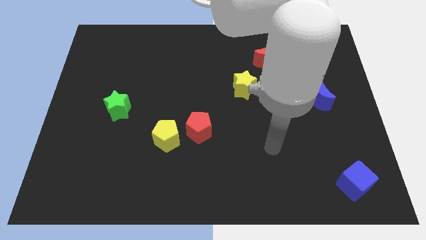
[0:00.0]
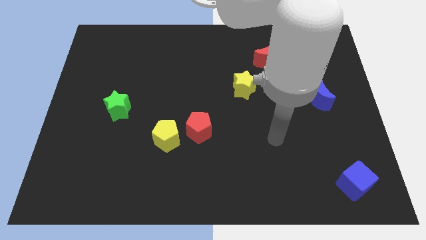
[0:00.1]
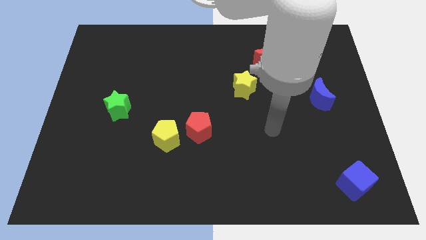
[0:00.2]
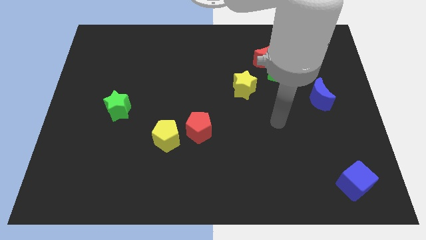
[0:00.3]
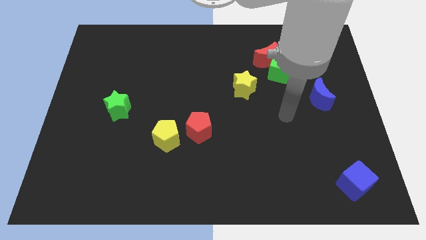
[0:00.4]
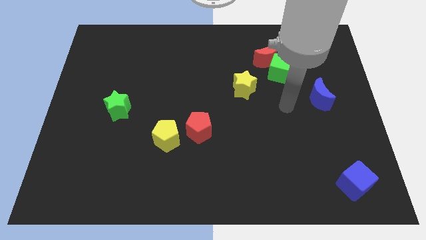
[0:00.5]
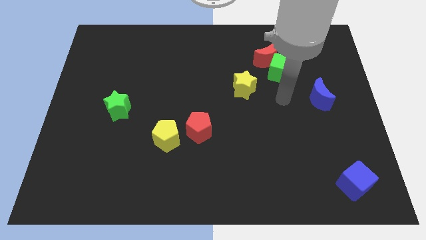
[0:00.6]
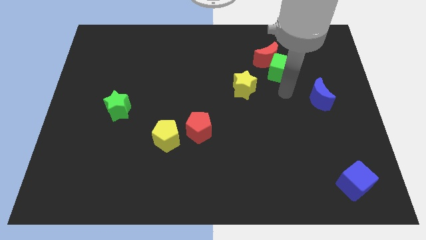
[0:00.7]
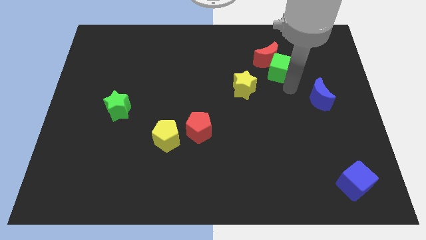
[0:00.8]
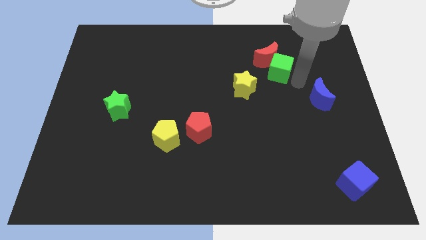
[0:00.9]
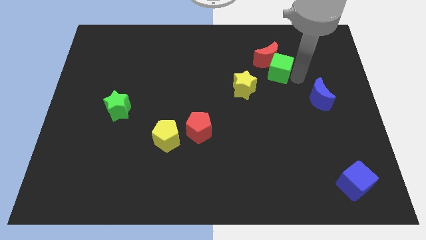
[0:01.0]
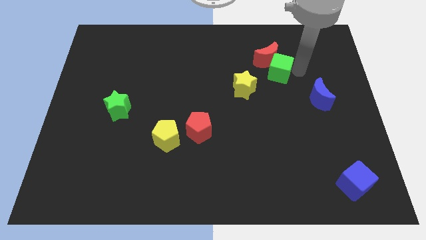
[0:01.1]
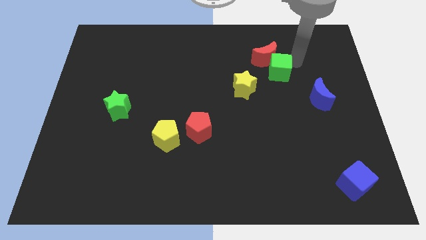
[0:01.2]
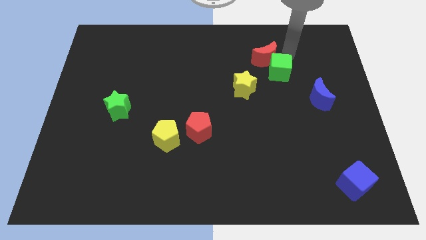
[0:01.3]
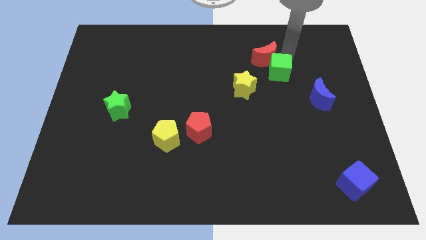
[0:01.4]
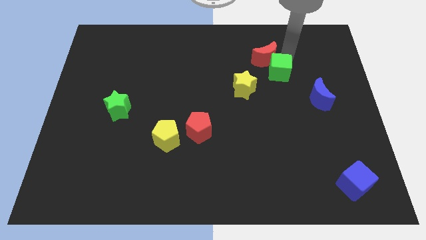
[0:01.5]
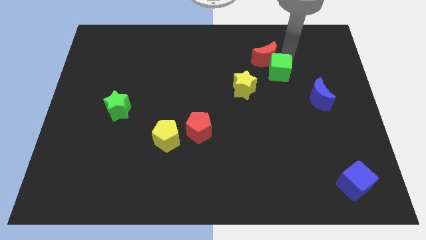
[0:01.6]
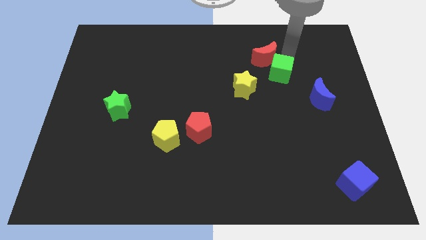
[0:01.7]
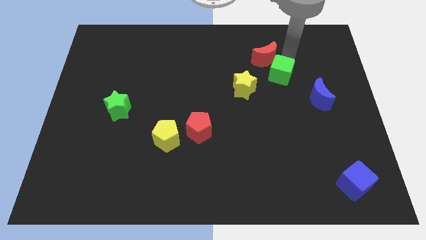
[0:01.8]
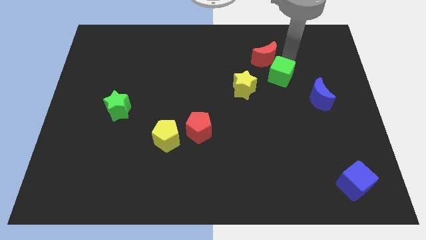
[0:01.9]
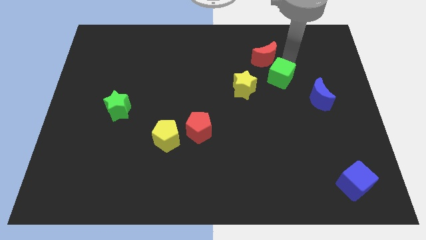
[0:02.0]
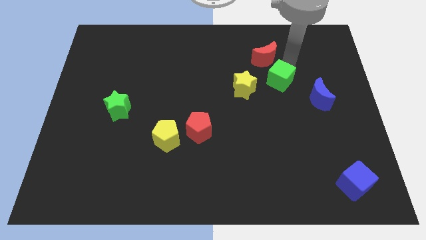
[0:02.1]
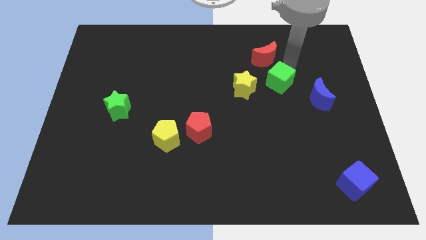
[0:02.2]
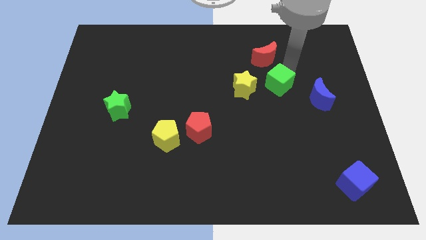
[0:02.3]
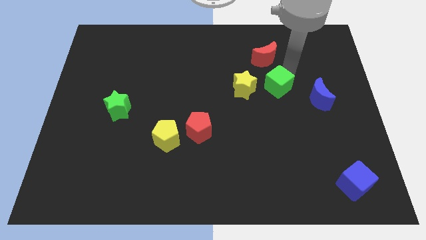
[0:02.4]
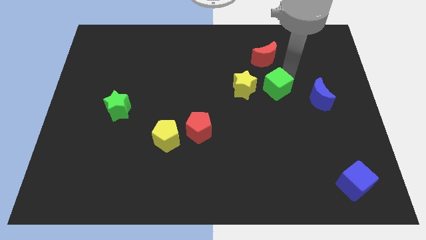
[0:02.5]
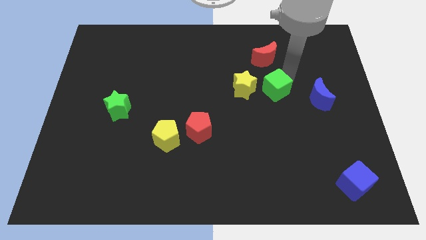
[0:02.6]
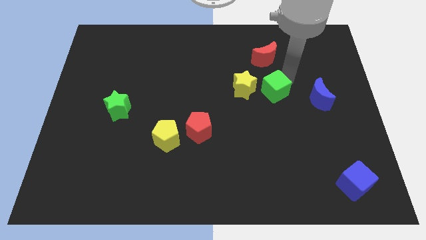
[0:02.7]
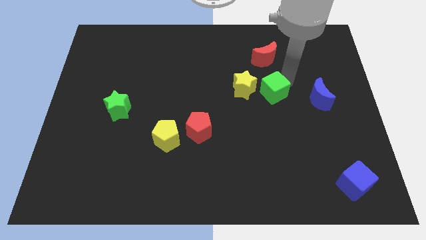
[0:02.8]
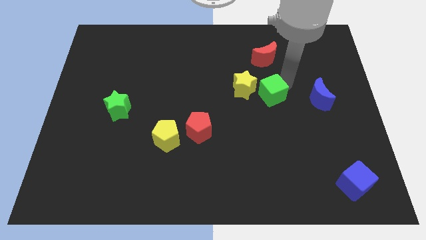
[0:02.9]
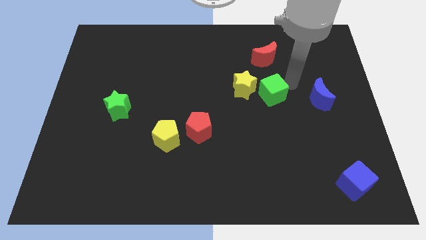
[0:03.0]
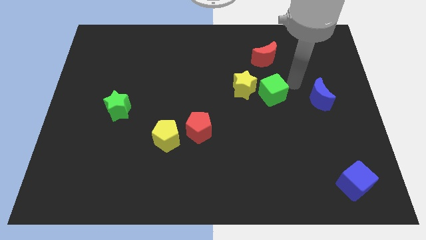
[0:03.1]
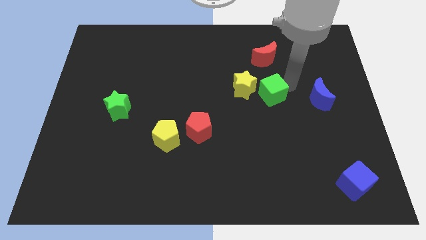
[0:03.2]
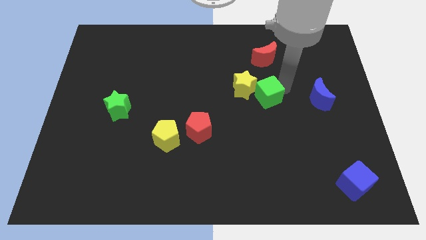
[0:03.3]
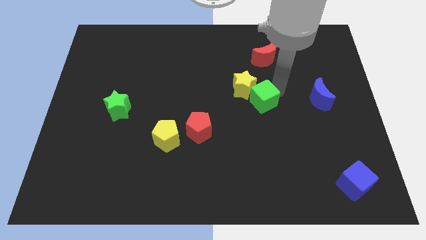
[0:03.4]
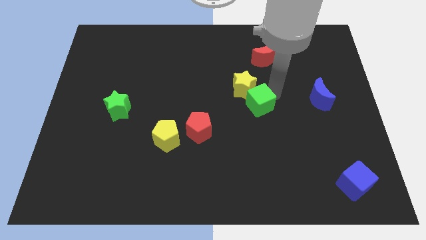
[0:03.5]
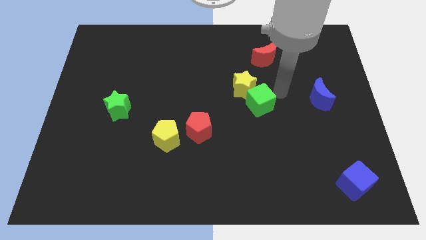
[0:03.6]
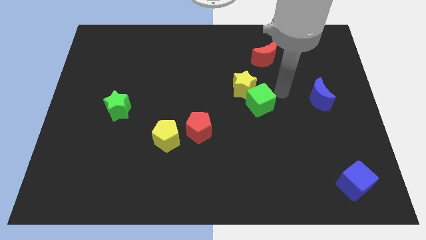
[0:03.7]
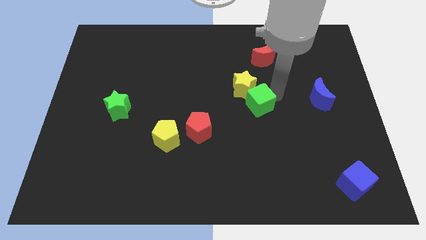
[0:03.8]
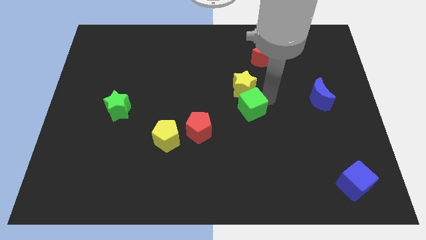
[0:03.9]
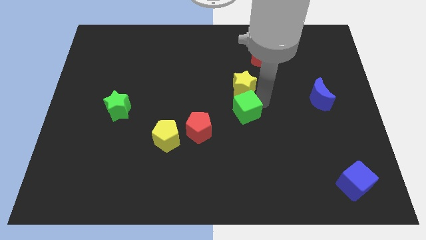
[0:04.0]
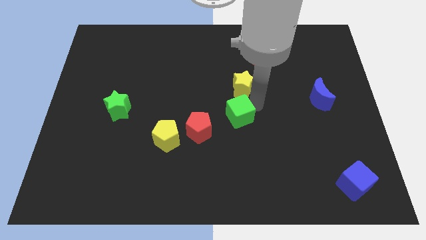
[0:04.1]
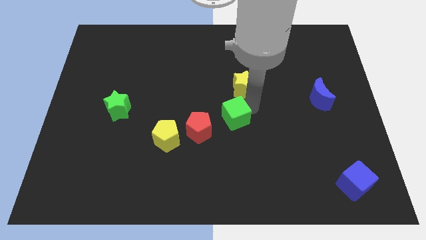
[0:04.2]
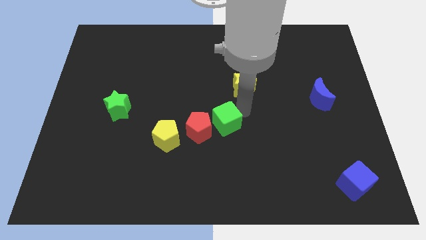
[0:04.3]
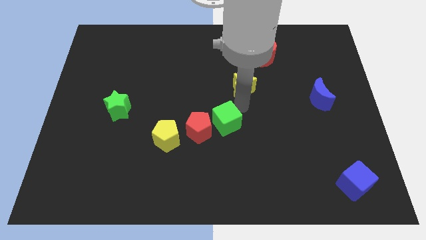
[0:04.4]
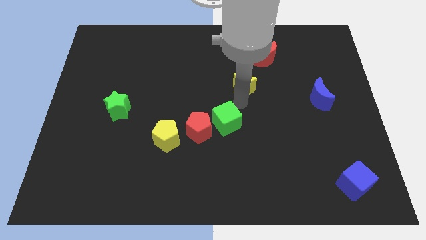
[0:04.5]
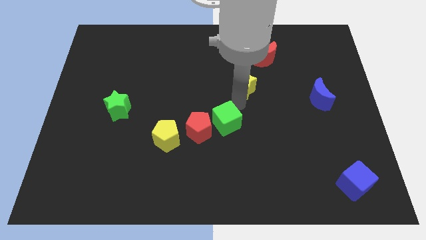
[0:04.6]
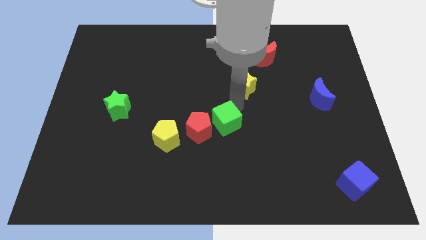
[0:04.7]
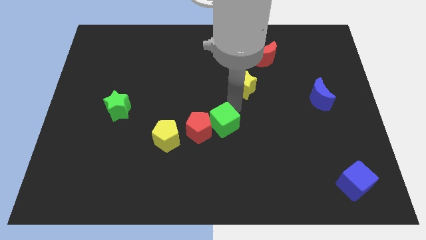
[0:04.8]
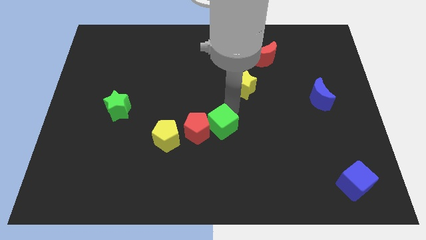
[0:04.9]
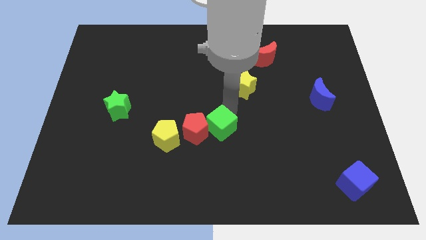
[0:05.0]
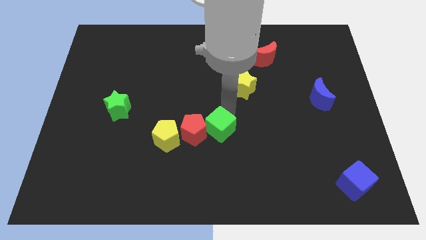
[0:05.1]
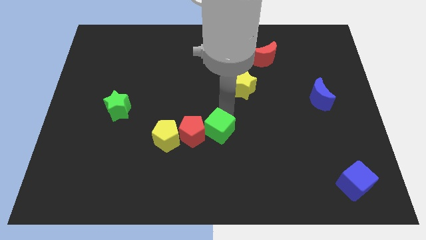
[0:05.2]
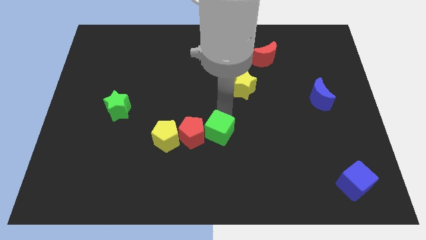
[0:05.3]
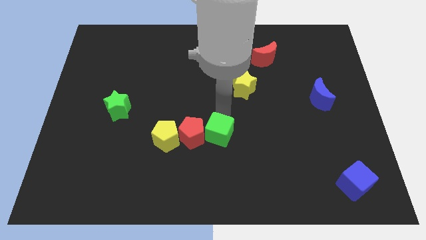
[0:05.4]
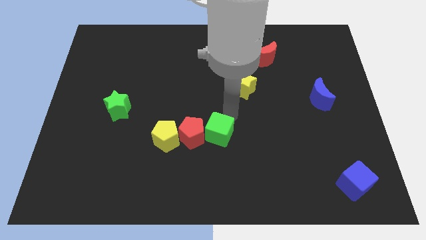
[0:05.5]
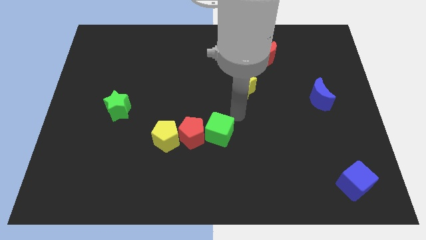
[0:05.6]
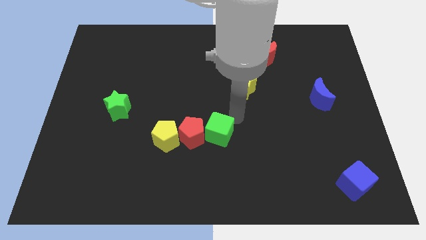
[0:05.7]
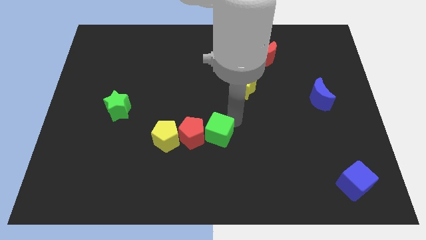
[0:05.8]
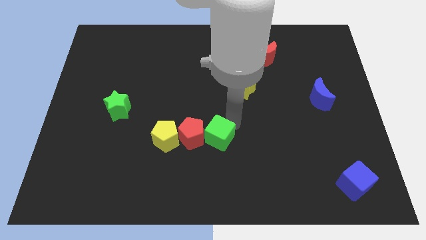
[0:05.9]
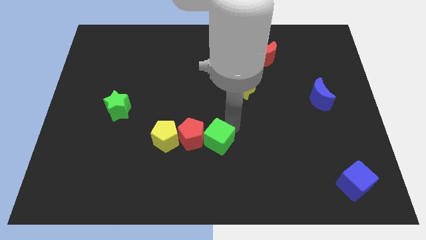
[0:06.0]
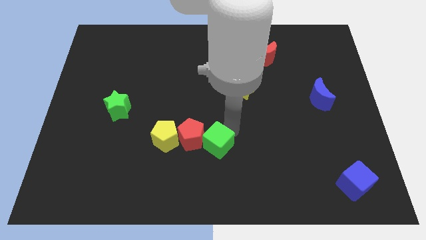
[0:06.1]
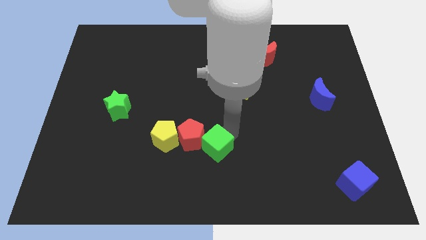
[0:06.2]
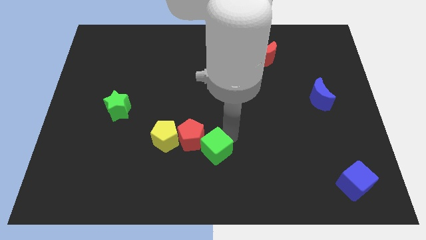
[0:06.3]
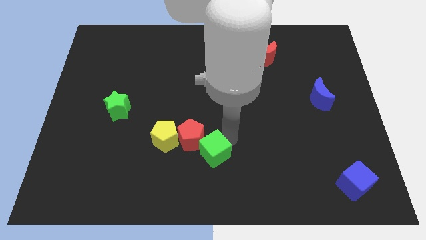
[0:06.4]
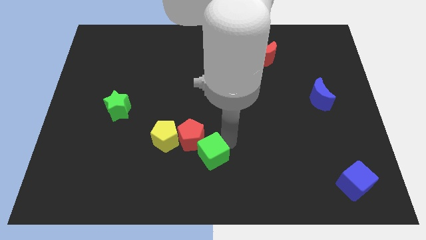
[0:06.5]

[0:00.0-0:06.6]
put the green cube to the bottom right of the yellow pentagon

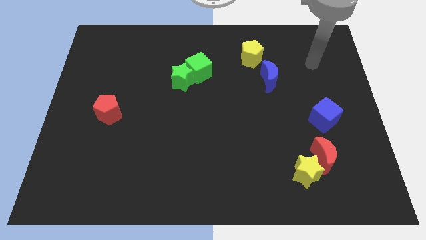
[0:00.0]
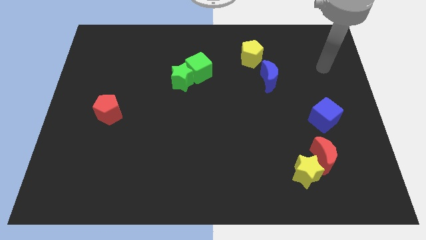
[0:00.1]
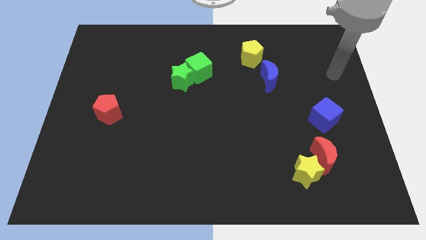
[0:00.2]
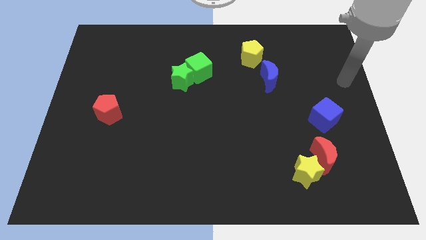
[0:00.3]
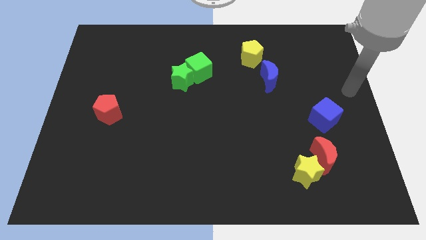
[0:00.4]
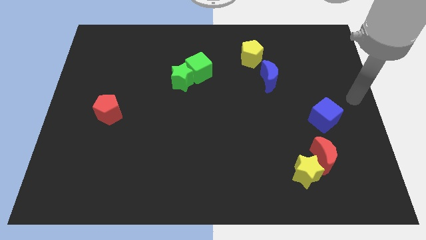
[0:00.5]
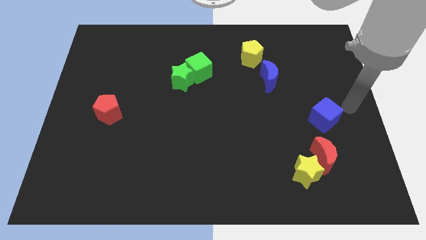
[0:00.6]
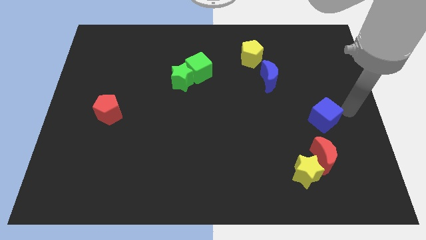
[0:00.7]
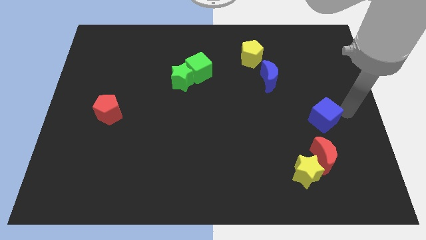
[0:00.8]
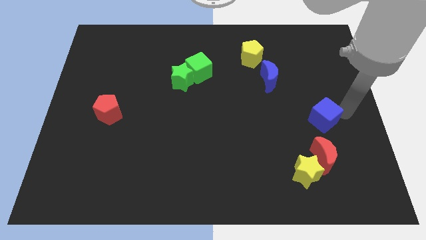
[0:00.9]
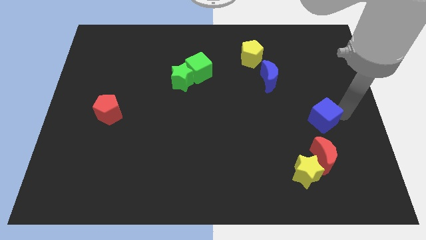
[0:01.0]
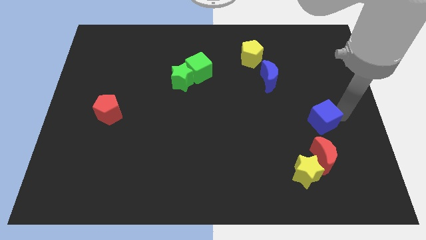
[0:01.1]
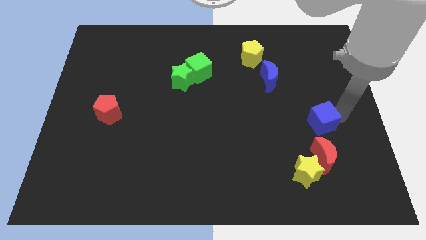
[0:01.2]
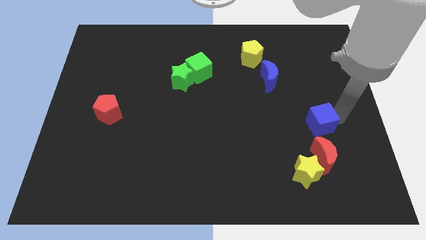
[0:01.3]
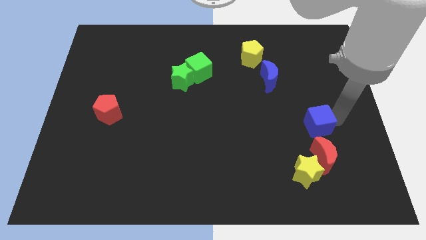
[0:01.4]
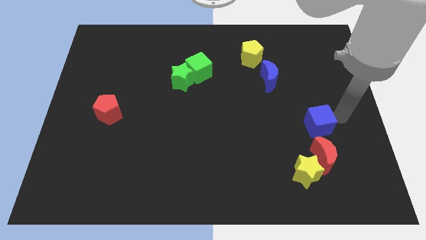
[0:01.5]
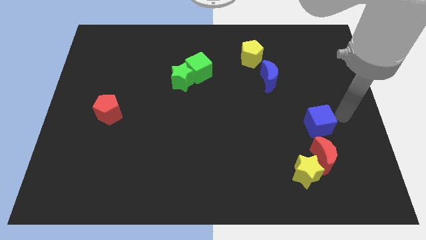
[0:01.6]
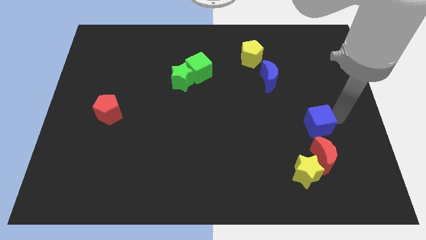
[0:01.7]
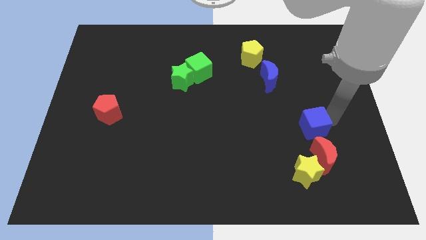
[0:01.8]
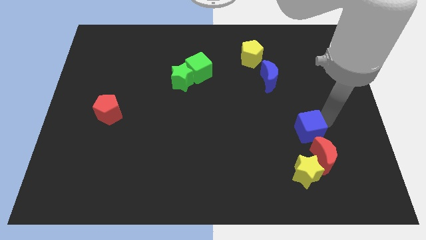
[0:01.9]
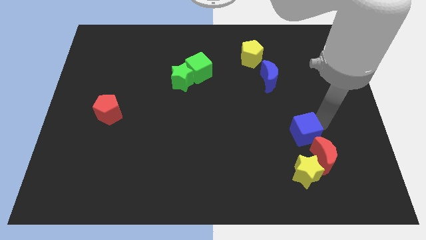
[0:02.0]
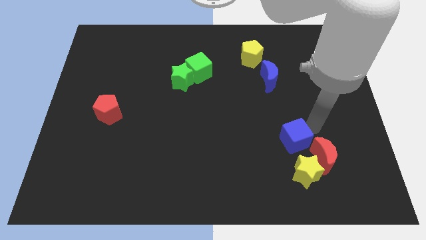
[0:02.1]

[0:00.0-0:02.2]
put the blue cube to the left side of the red moon
